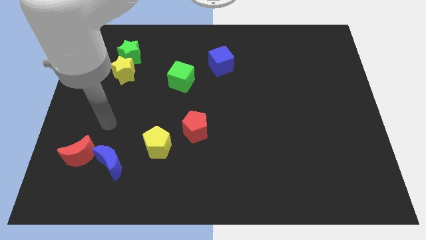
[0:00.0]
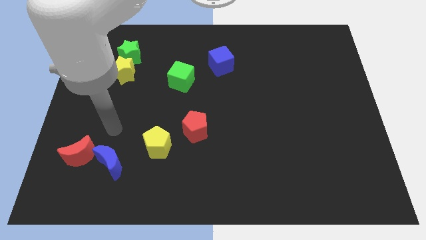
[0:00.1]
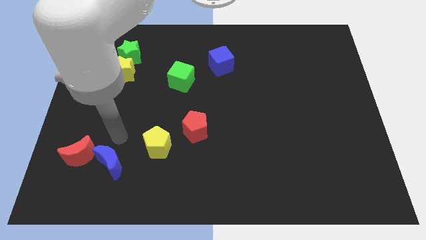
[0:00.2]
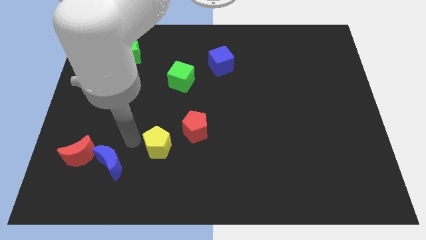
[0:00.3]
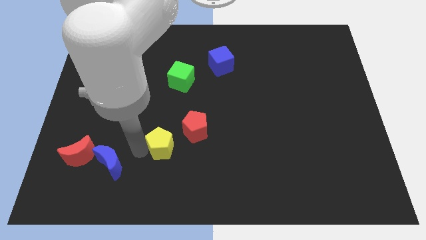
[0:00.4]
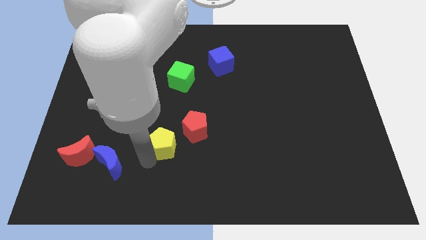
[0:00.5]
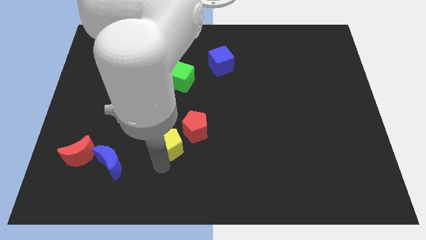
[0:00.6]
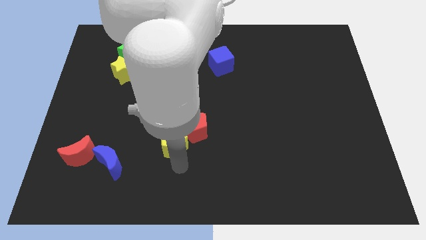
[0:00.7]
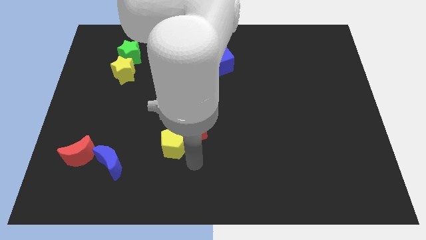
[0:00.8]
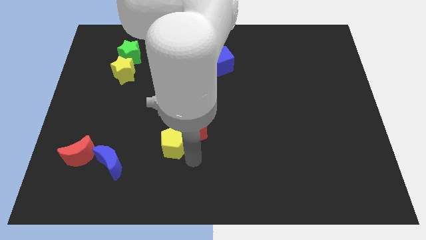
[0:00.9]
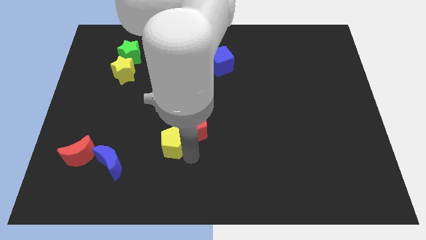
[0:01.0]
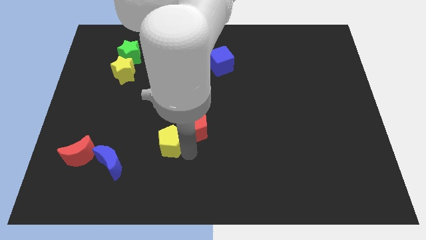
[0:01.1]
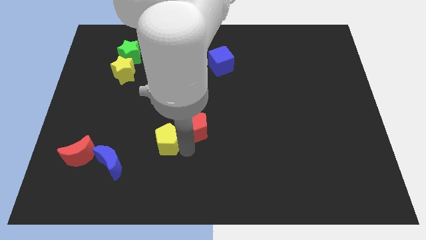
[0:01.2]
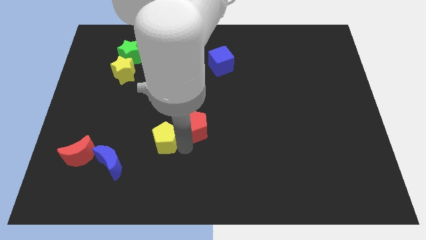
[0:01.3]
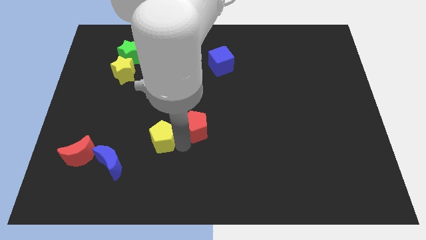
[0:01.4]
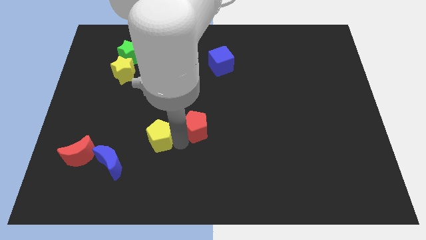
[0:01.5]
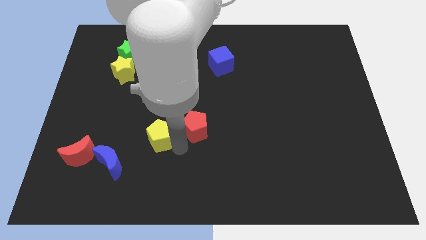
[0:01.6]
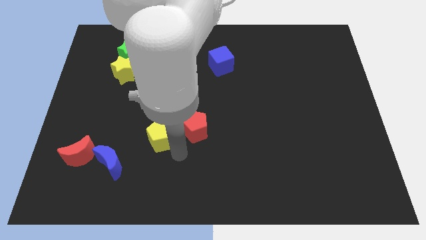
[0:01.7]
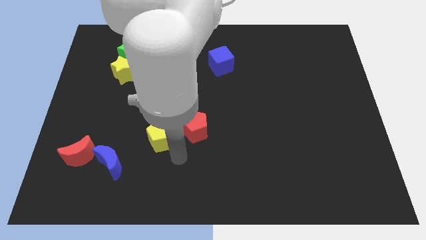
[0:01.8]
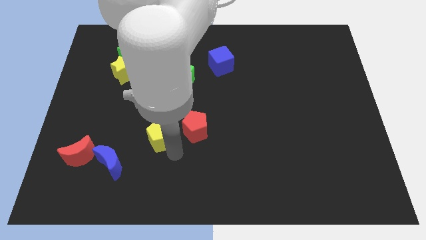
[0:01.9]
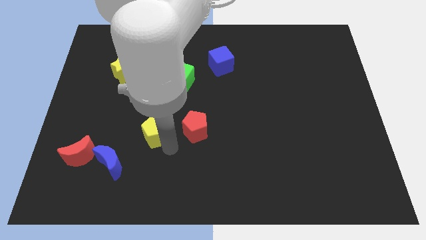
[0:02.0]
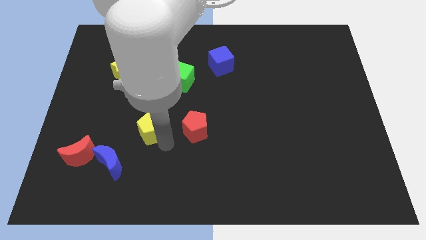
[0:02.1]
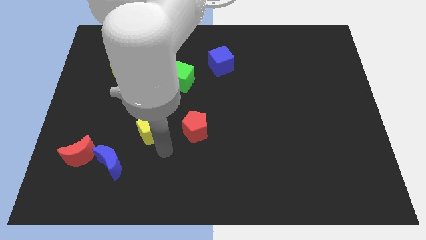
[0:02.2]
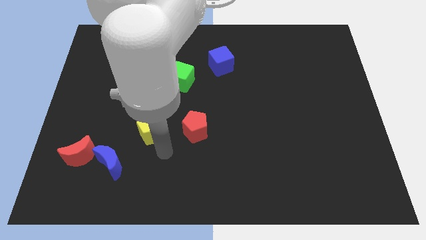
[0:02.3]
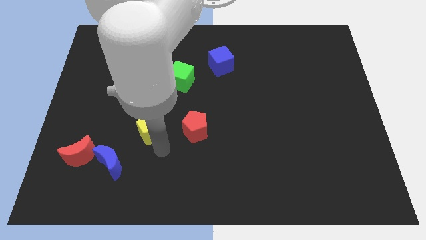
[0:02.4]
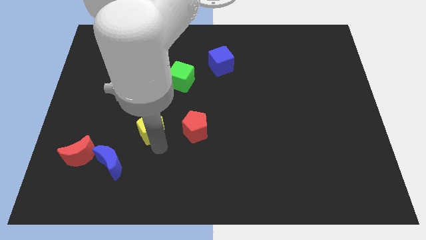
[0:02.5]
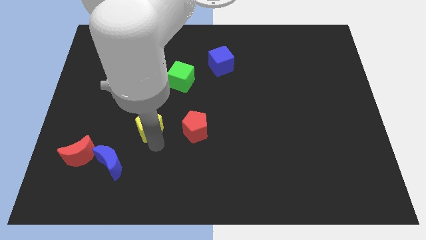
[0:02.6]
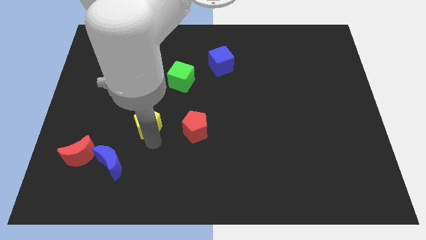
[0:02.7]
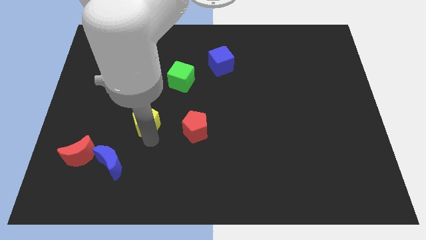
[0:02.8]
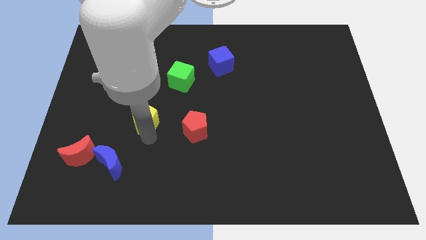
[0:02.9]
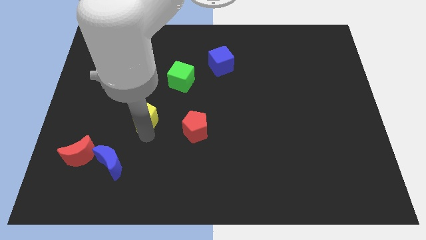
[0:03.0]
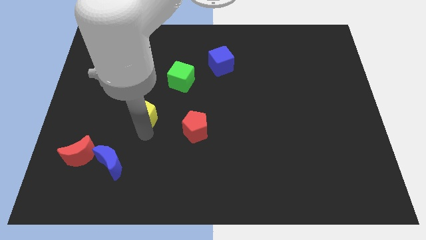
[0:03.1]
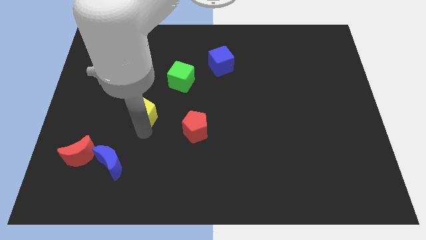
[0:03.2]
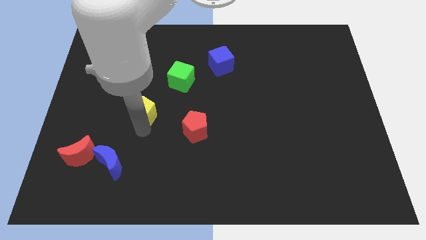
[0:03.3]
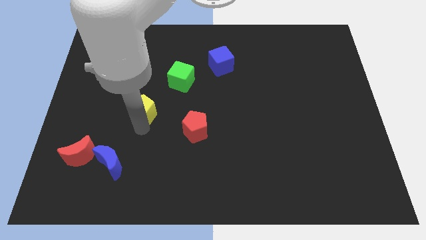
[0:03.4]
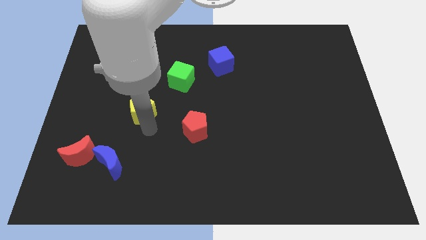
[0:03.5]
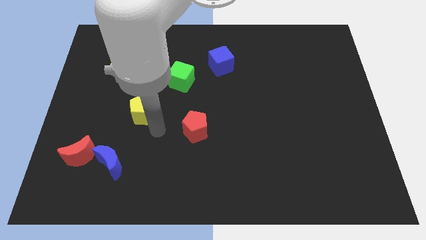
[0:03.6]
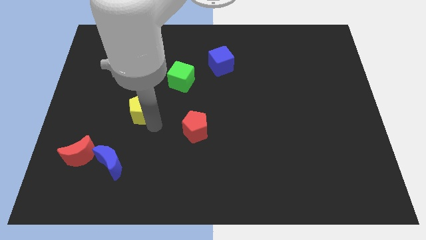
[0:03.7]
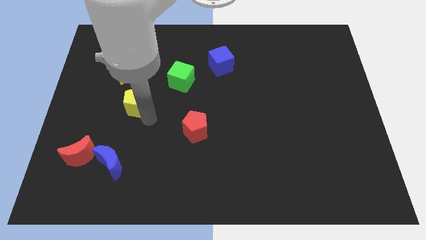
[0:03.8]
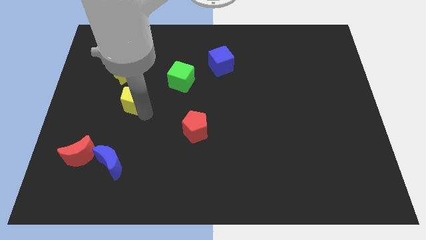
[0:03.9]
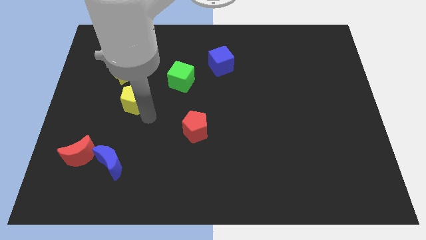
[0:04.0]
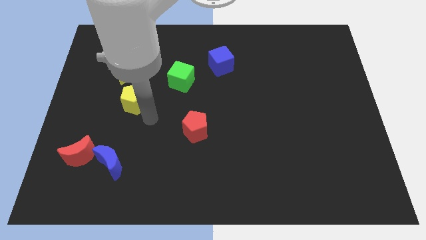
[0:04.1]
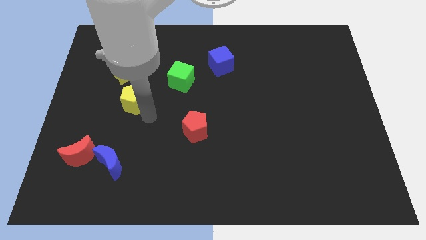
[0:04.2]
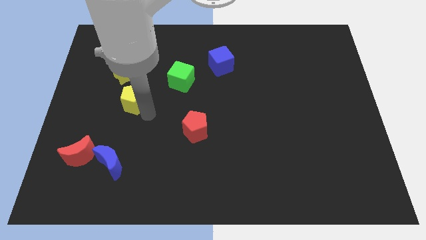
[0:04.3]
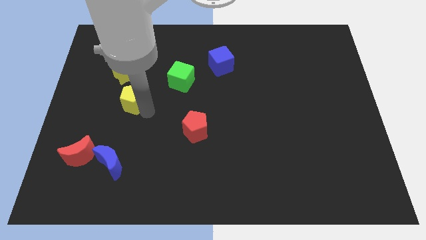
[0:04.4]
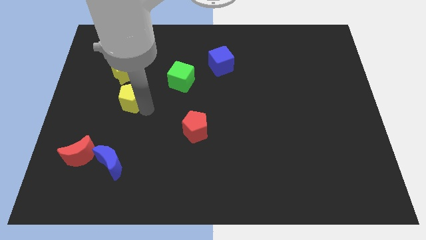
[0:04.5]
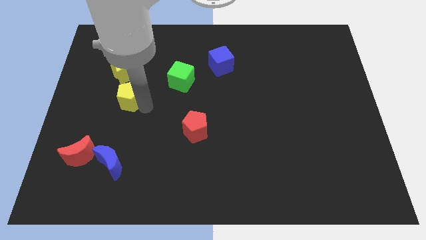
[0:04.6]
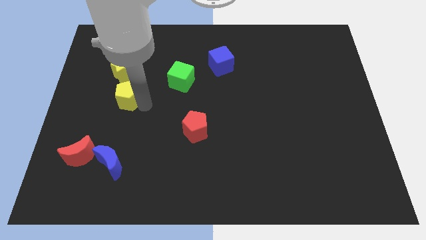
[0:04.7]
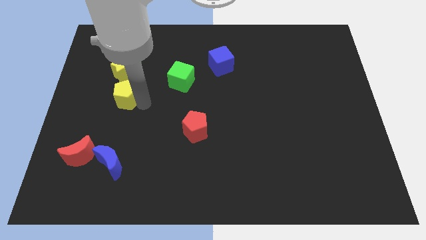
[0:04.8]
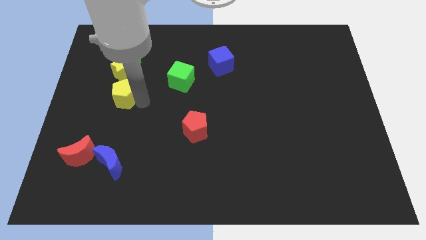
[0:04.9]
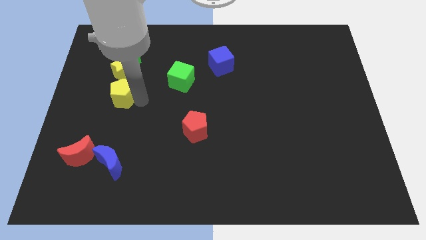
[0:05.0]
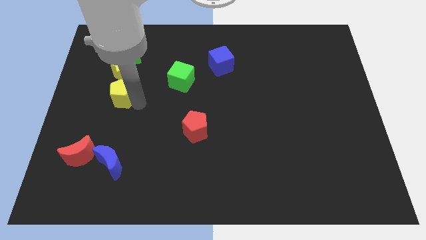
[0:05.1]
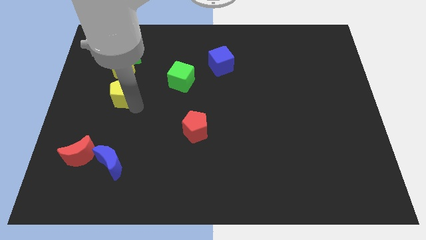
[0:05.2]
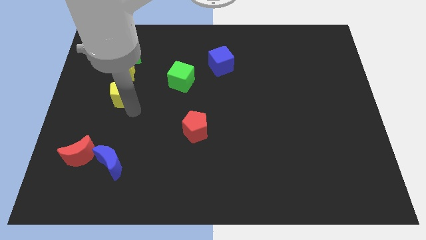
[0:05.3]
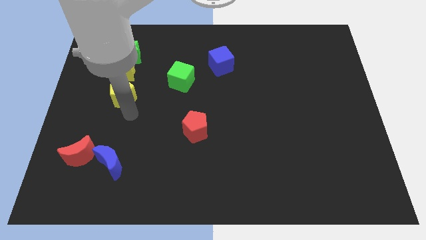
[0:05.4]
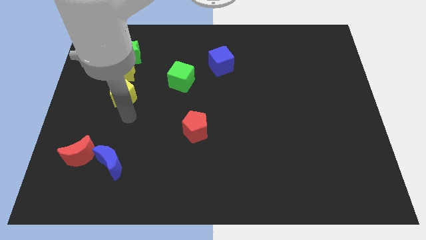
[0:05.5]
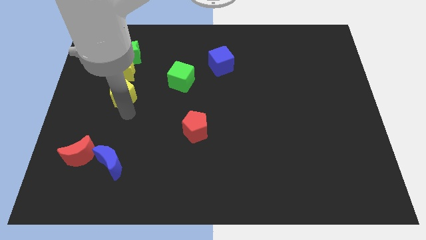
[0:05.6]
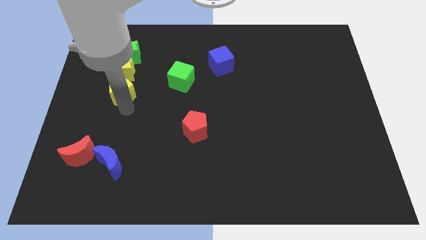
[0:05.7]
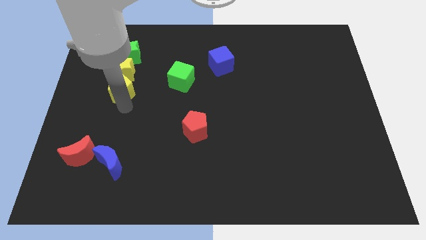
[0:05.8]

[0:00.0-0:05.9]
push the yellow pentagon close to the yellow star
